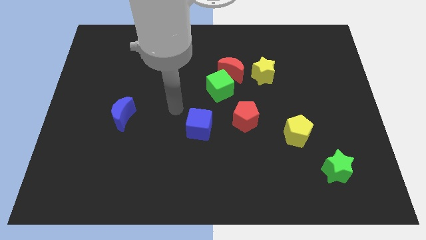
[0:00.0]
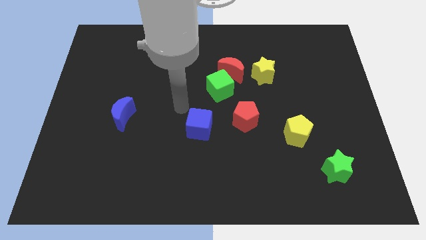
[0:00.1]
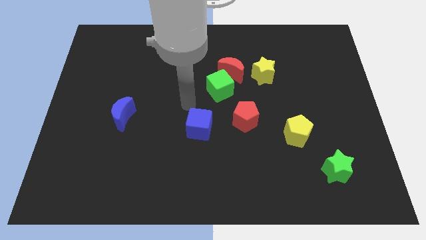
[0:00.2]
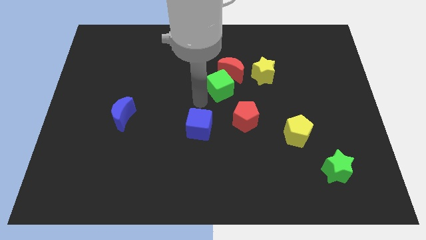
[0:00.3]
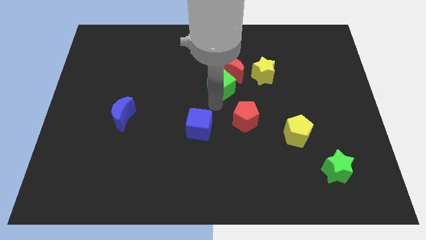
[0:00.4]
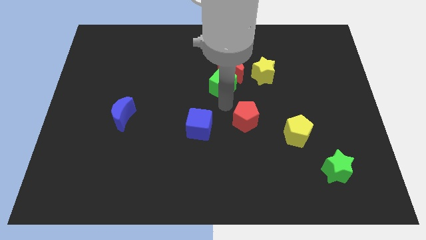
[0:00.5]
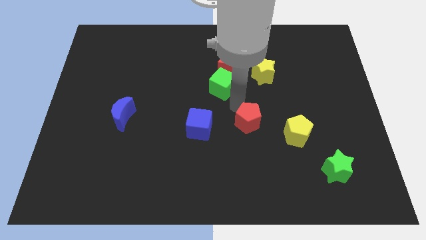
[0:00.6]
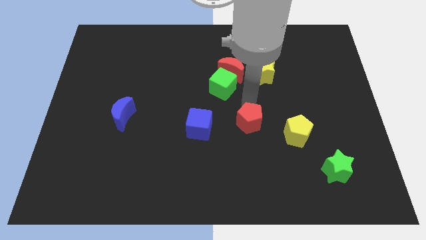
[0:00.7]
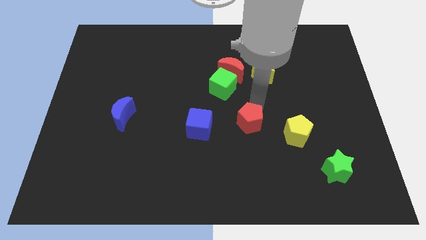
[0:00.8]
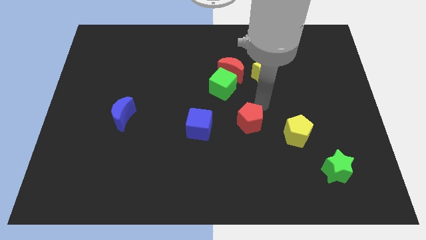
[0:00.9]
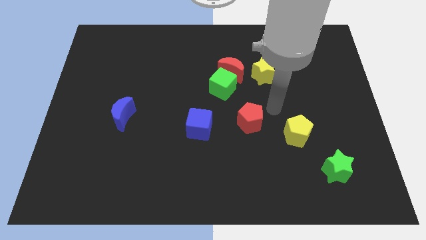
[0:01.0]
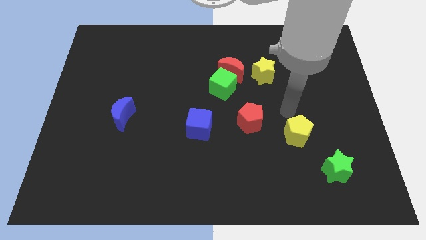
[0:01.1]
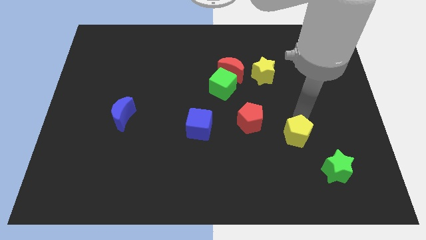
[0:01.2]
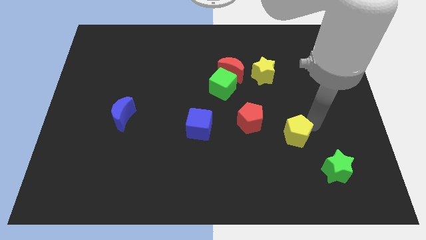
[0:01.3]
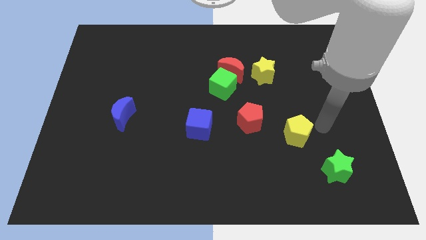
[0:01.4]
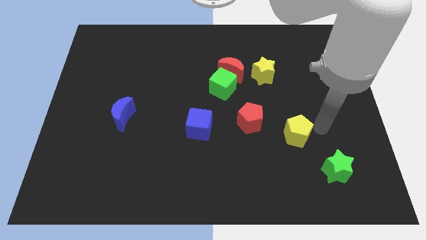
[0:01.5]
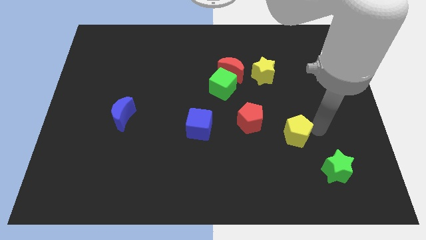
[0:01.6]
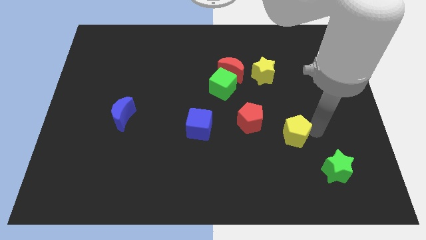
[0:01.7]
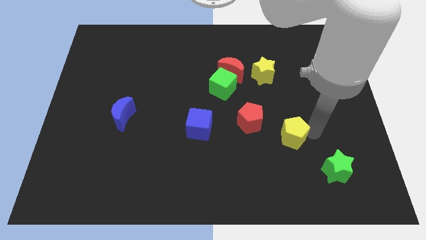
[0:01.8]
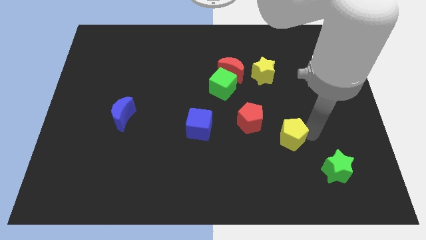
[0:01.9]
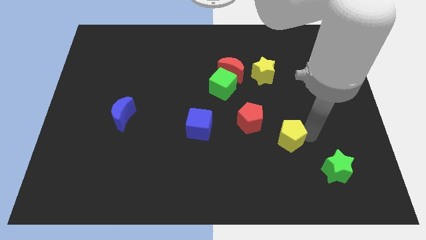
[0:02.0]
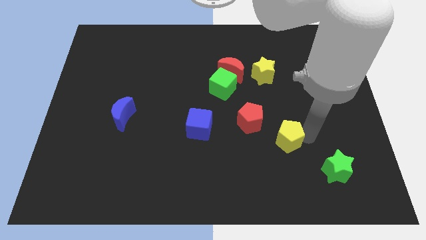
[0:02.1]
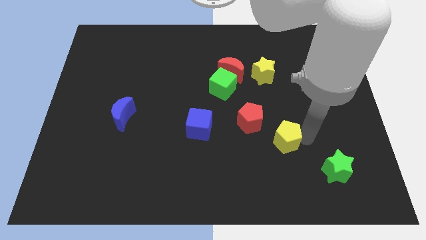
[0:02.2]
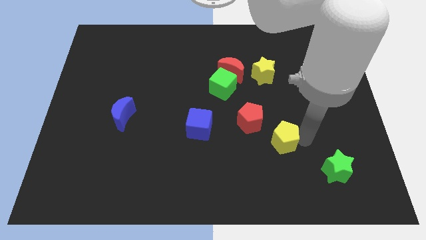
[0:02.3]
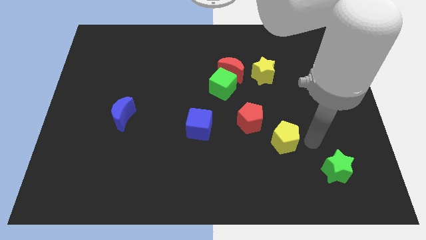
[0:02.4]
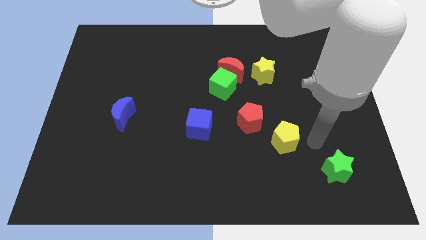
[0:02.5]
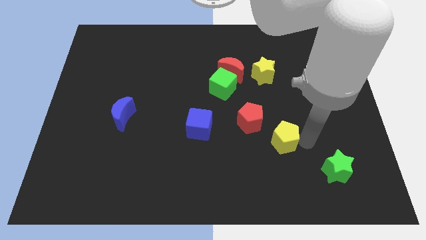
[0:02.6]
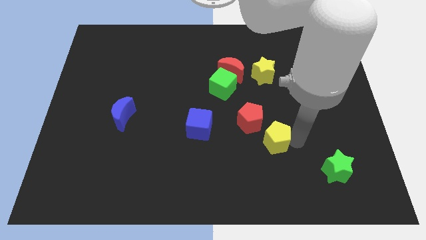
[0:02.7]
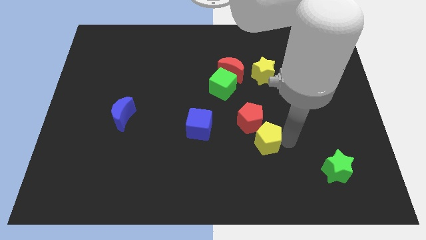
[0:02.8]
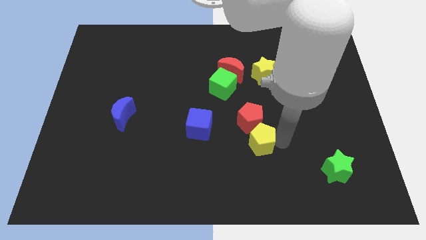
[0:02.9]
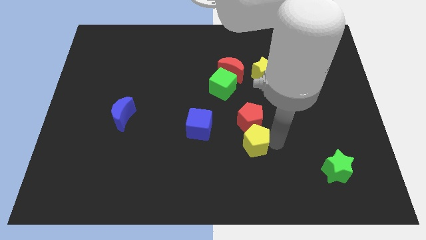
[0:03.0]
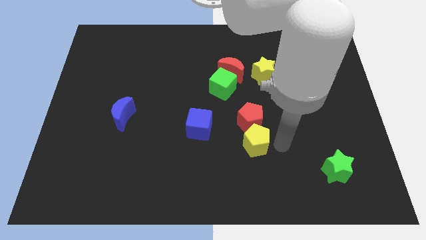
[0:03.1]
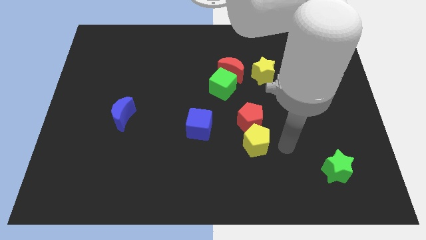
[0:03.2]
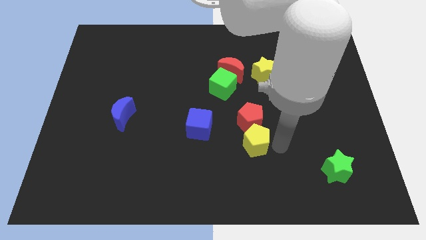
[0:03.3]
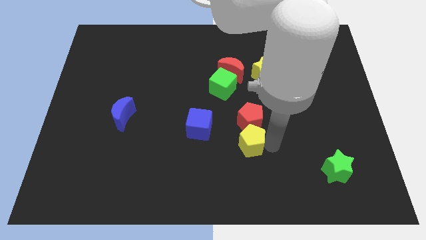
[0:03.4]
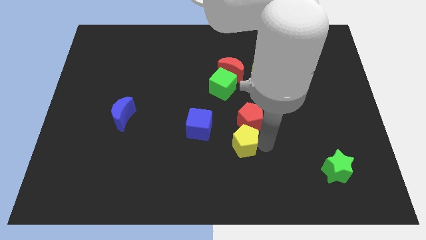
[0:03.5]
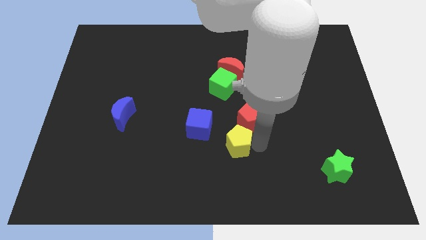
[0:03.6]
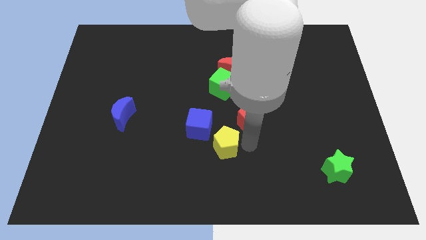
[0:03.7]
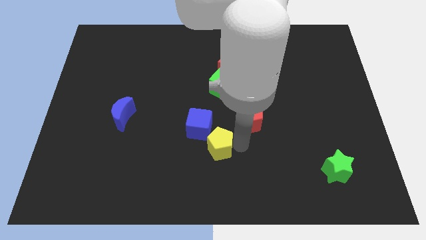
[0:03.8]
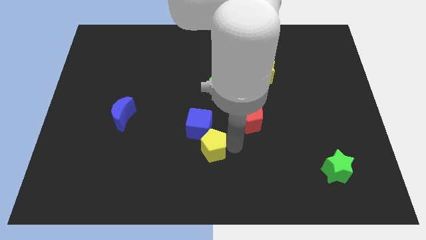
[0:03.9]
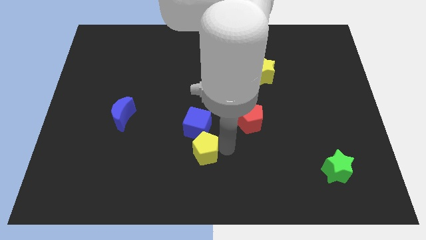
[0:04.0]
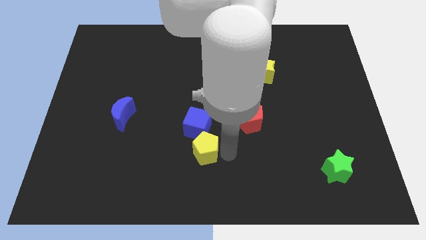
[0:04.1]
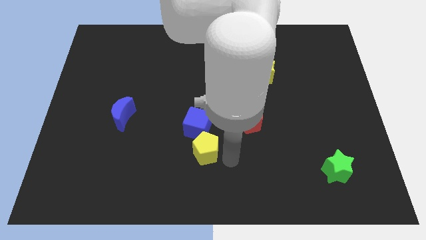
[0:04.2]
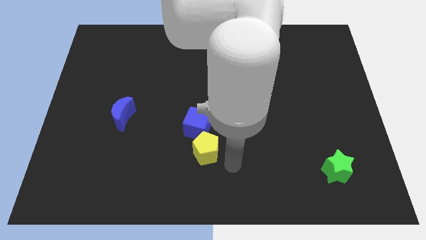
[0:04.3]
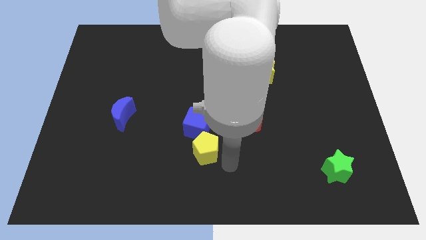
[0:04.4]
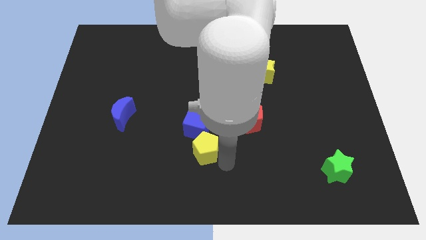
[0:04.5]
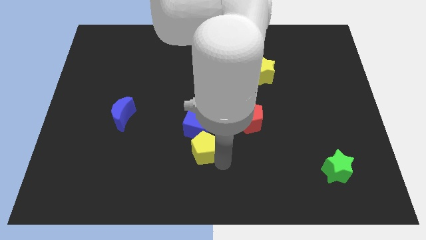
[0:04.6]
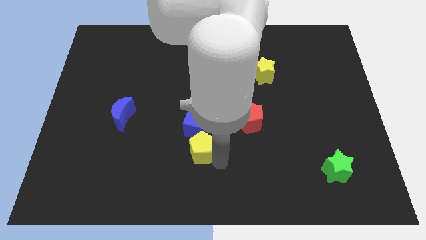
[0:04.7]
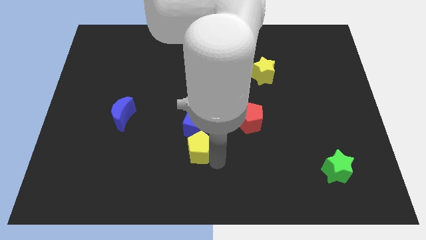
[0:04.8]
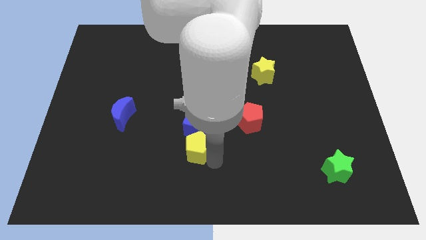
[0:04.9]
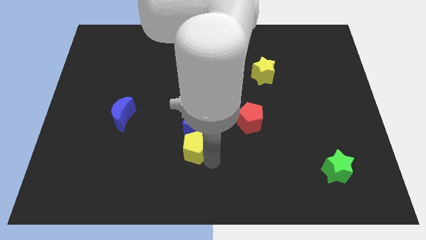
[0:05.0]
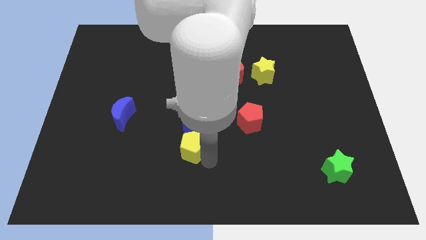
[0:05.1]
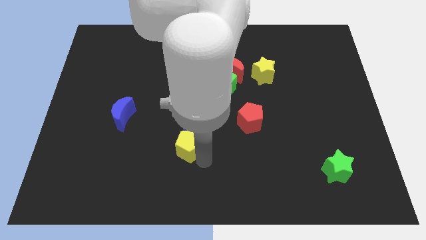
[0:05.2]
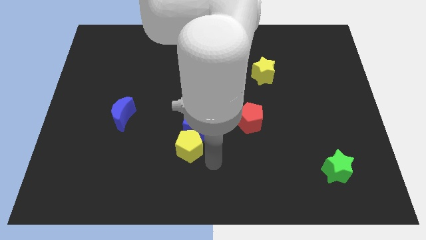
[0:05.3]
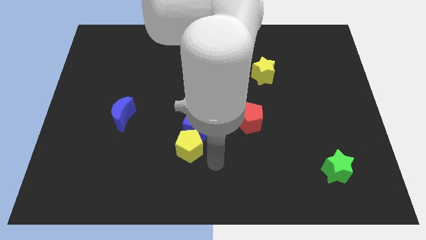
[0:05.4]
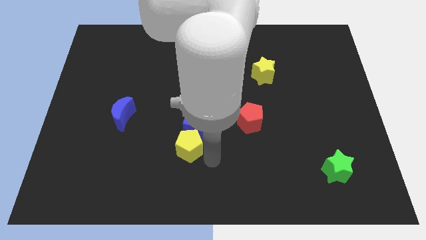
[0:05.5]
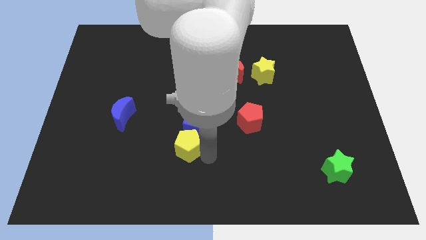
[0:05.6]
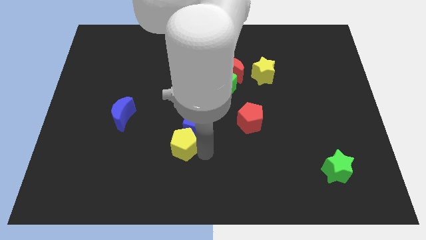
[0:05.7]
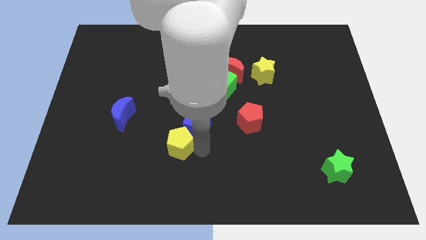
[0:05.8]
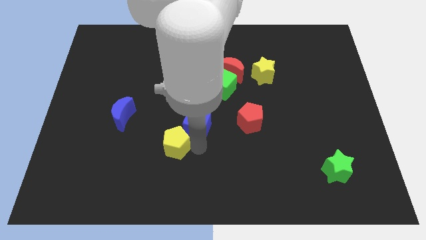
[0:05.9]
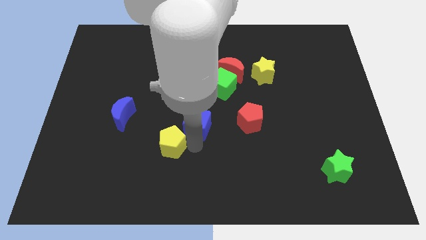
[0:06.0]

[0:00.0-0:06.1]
push the yellow pentagon to the left of the blue cube

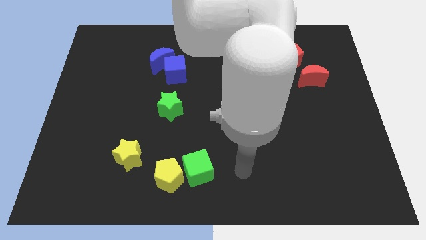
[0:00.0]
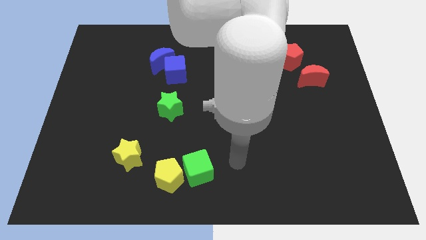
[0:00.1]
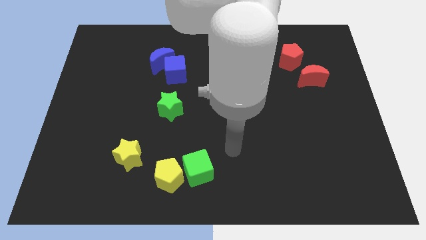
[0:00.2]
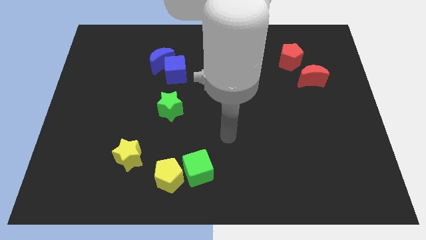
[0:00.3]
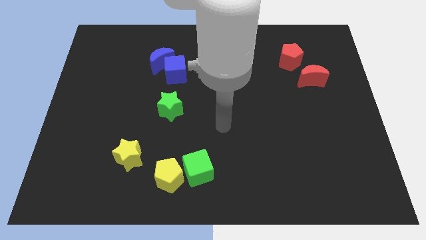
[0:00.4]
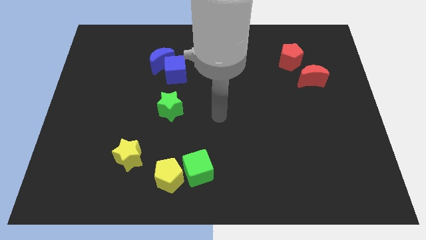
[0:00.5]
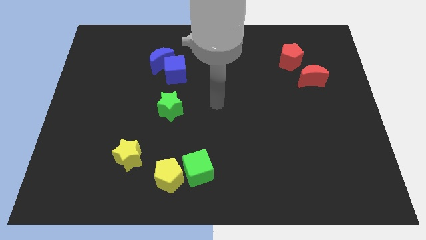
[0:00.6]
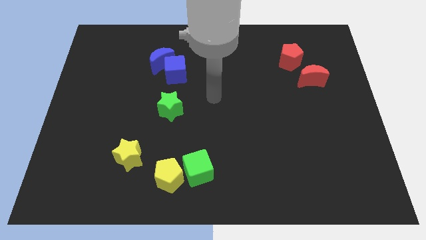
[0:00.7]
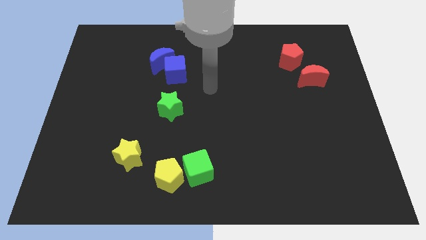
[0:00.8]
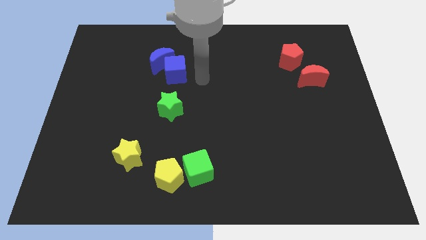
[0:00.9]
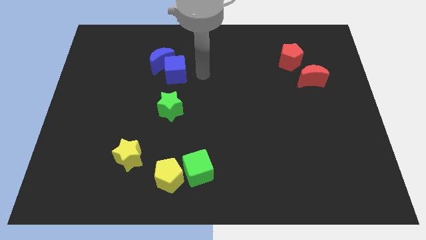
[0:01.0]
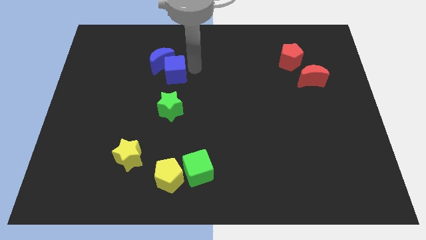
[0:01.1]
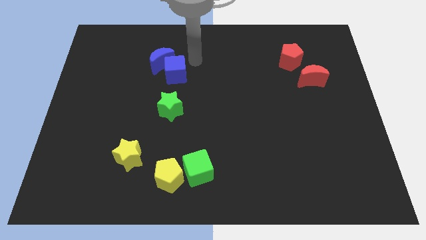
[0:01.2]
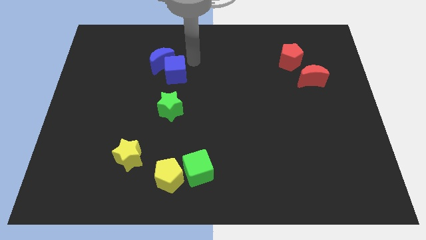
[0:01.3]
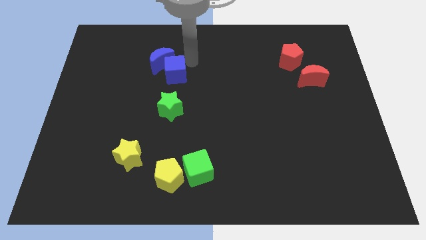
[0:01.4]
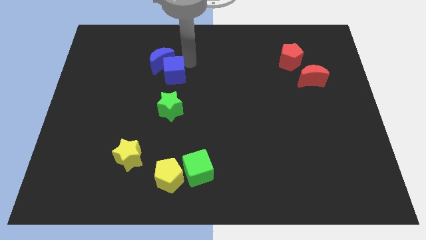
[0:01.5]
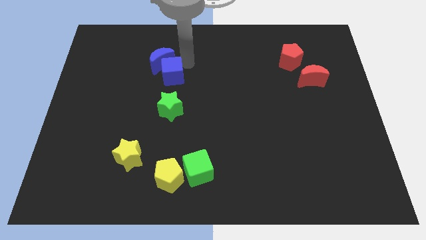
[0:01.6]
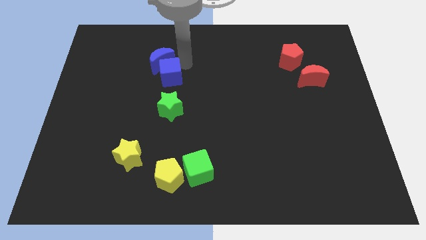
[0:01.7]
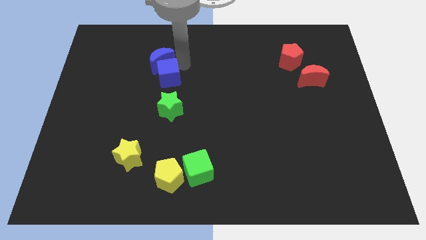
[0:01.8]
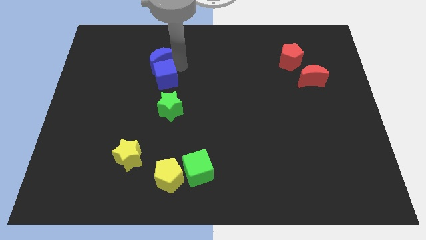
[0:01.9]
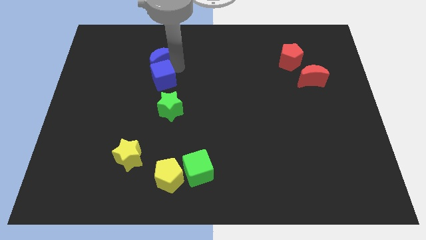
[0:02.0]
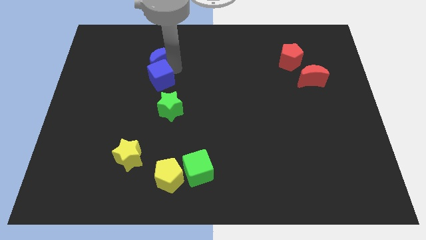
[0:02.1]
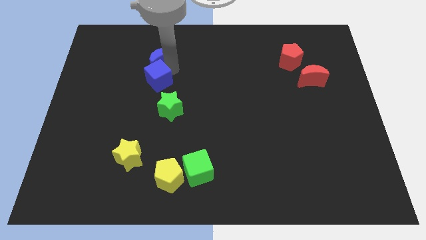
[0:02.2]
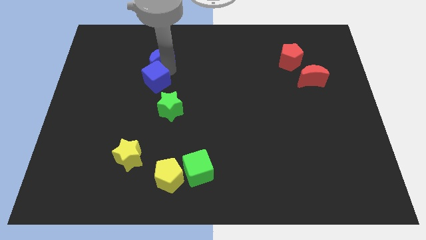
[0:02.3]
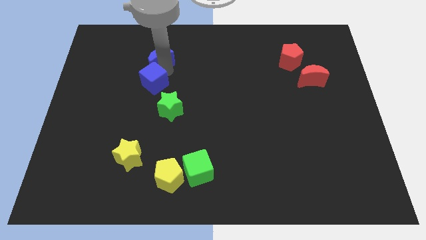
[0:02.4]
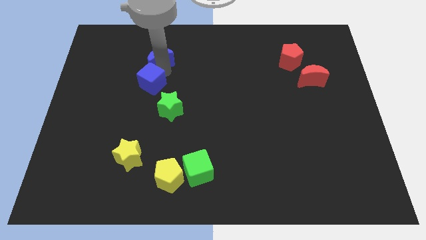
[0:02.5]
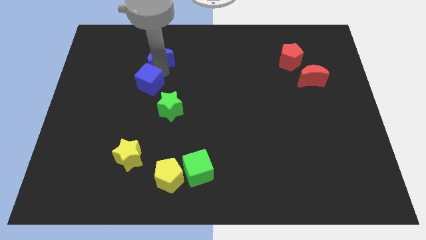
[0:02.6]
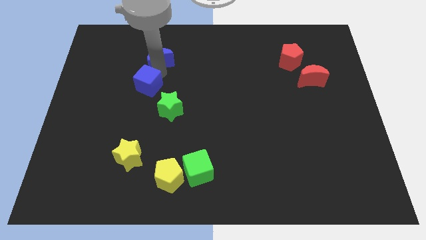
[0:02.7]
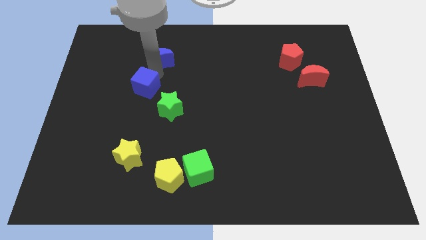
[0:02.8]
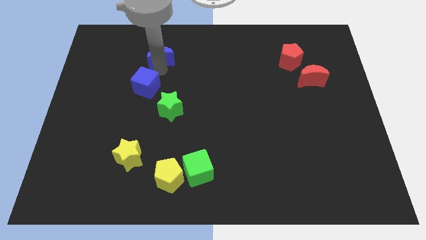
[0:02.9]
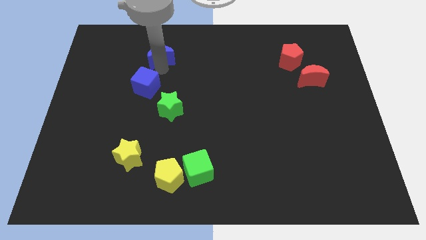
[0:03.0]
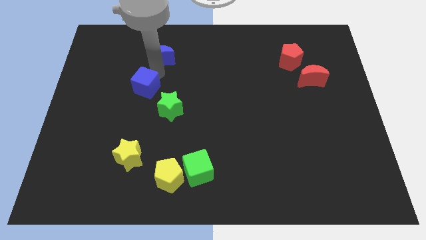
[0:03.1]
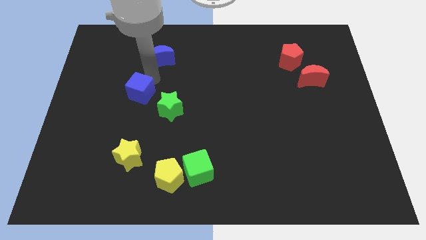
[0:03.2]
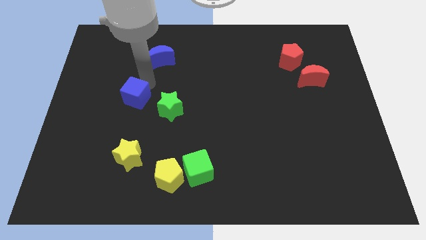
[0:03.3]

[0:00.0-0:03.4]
slide the blue cube to the left of the green star
